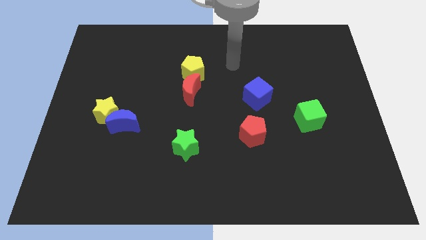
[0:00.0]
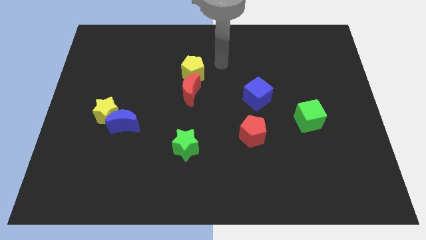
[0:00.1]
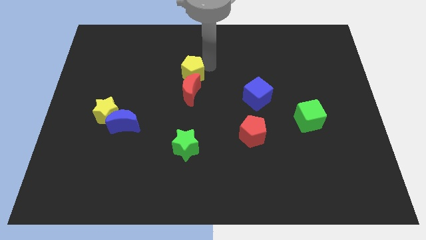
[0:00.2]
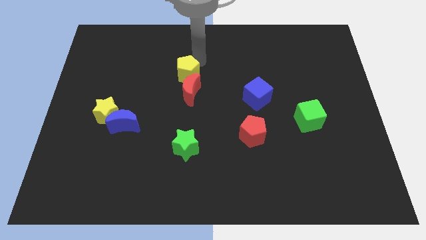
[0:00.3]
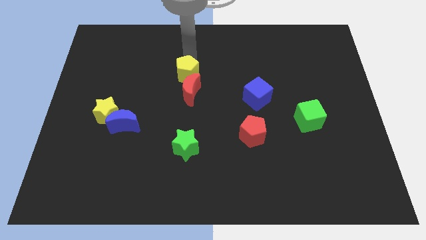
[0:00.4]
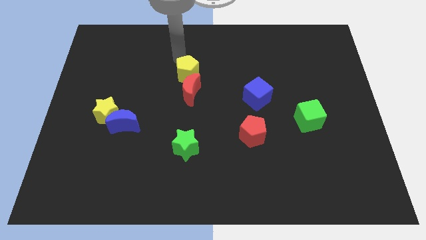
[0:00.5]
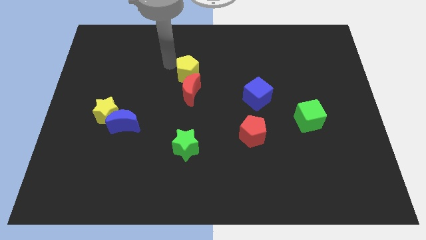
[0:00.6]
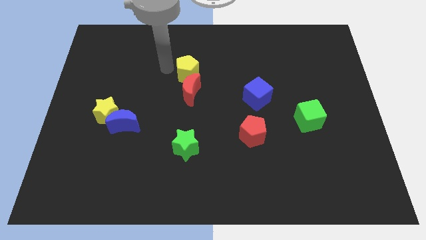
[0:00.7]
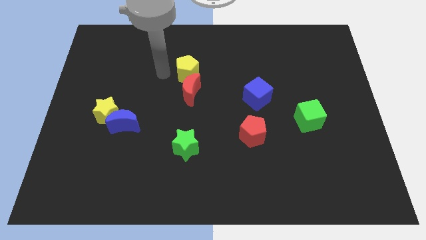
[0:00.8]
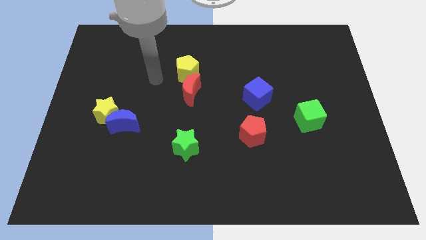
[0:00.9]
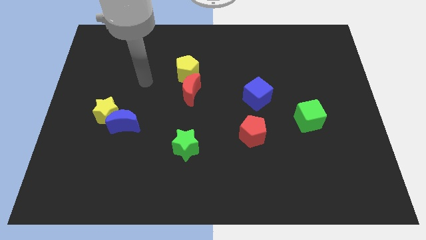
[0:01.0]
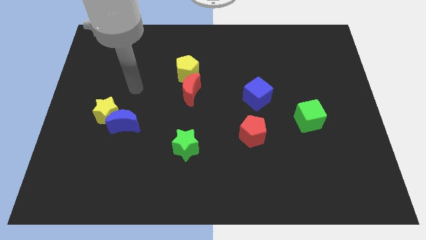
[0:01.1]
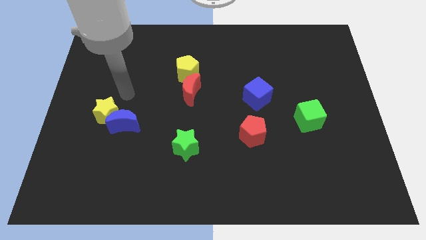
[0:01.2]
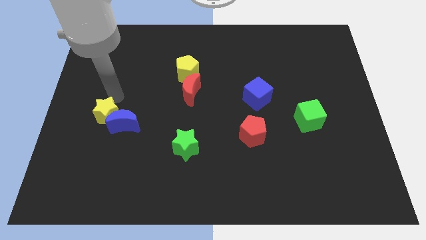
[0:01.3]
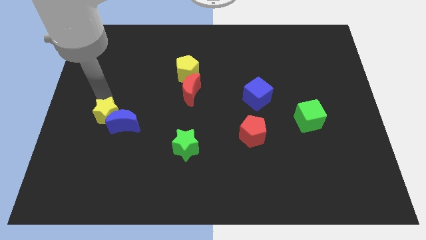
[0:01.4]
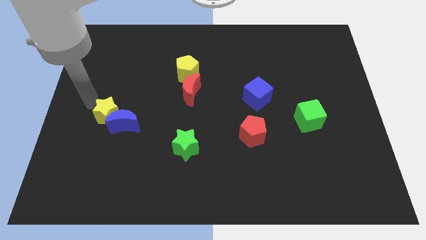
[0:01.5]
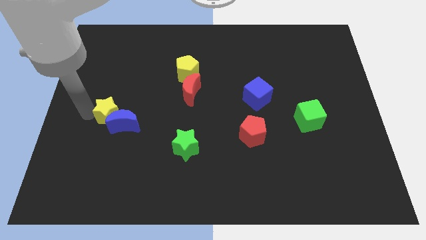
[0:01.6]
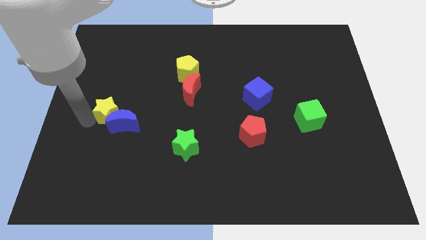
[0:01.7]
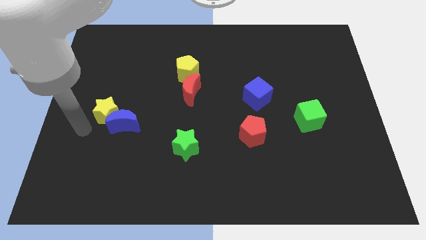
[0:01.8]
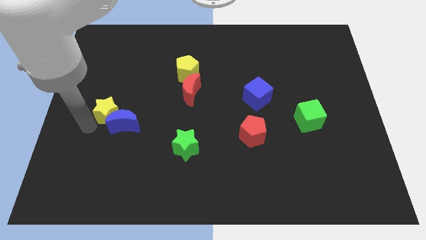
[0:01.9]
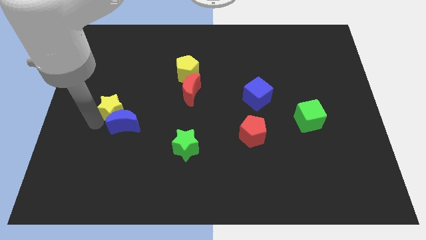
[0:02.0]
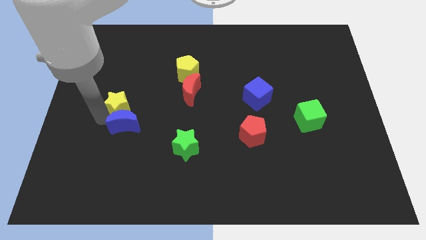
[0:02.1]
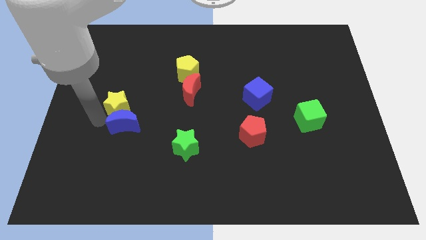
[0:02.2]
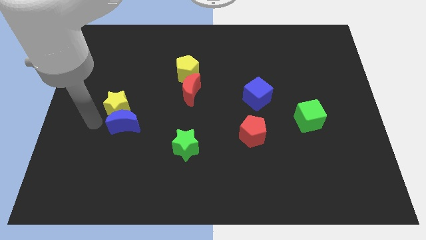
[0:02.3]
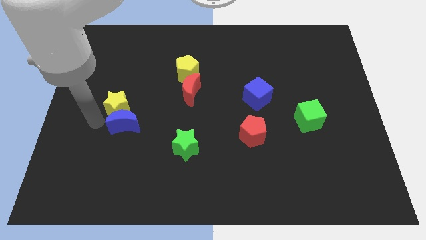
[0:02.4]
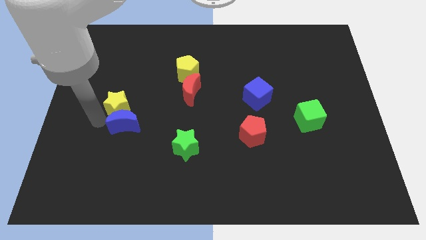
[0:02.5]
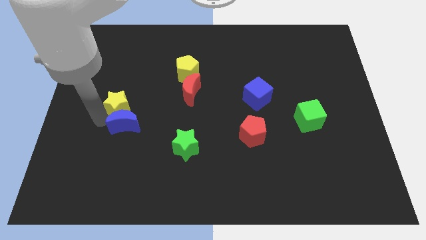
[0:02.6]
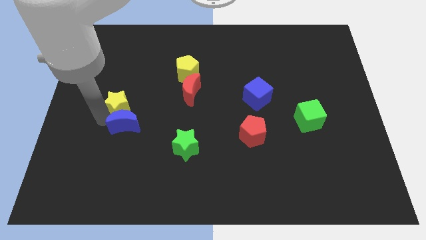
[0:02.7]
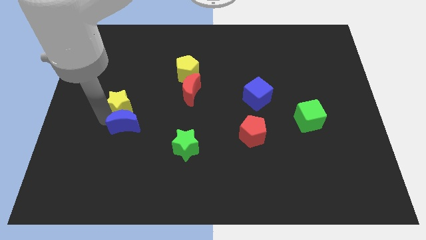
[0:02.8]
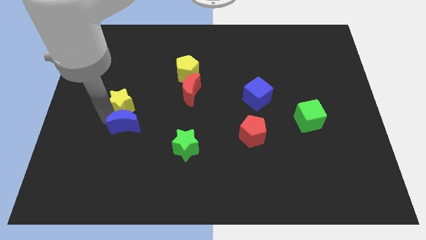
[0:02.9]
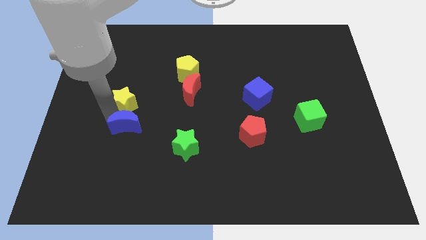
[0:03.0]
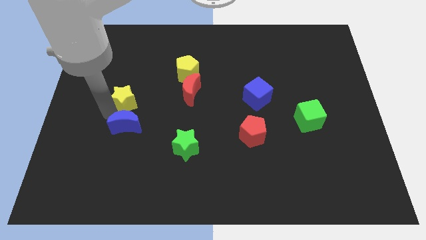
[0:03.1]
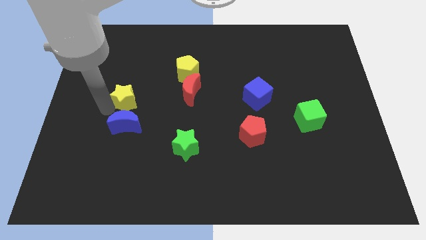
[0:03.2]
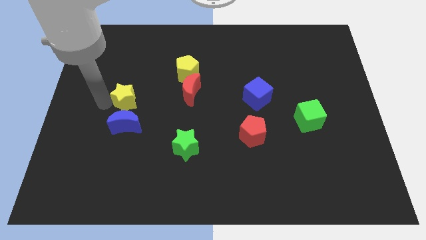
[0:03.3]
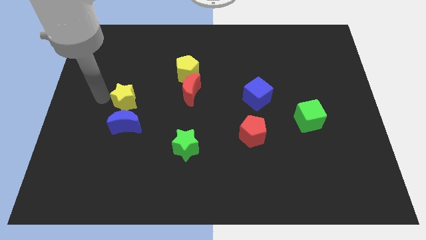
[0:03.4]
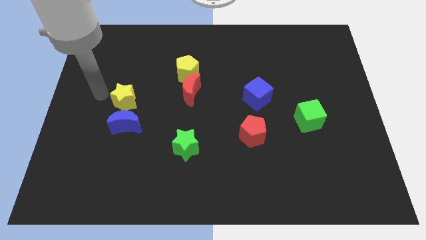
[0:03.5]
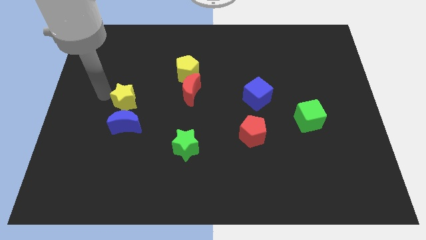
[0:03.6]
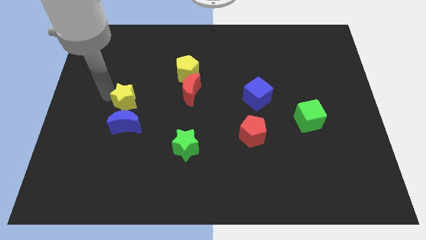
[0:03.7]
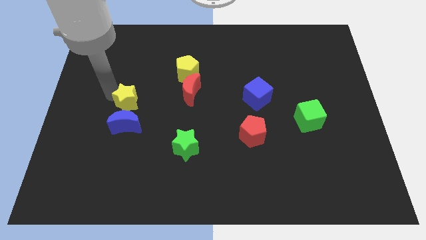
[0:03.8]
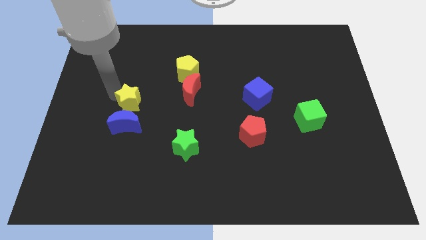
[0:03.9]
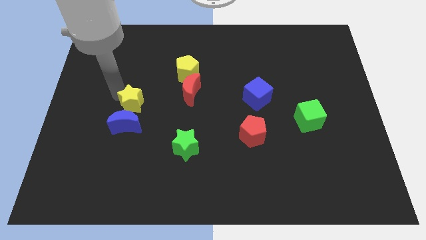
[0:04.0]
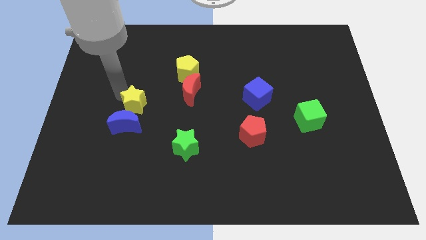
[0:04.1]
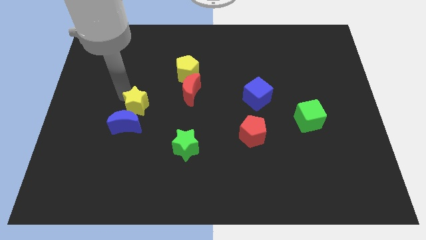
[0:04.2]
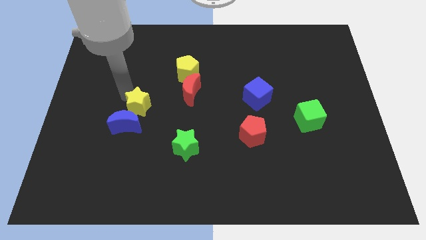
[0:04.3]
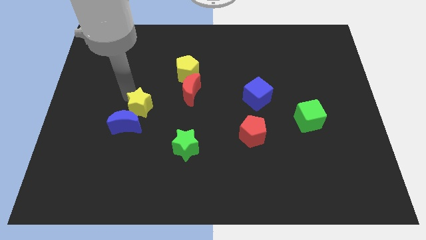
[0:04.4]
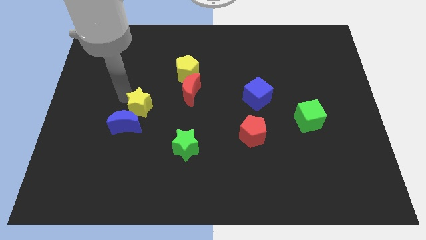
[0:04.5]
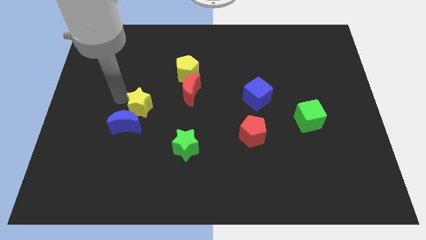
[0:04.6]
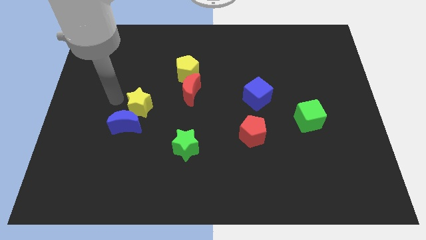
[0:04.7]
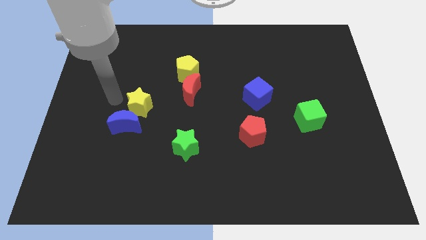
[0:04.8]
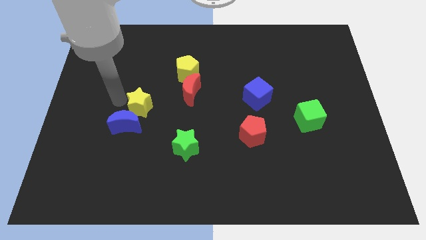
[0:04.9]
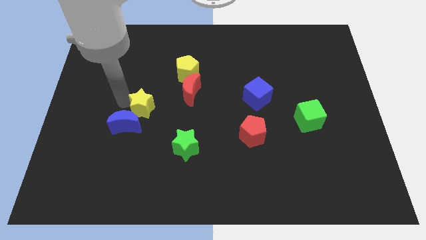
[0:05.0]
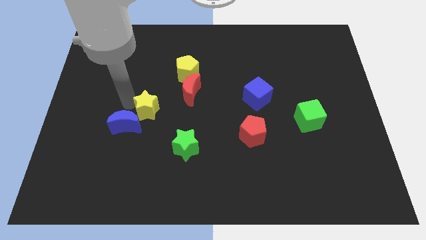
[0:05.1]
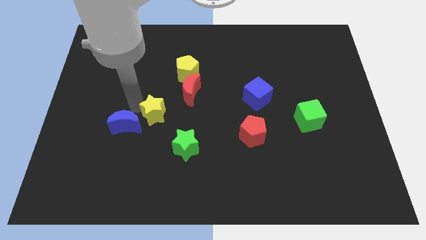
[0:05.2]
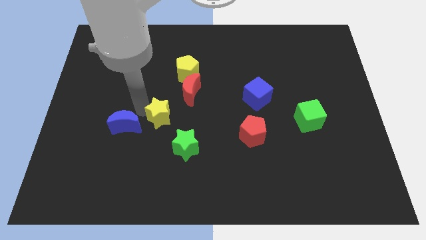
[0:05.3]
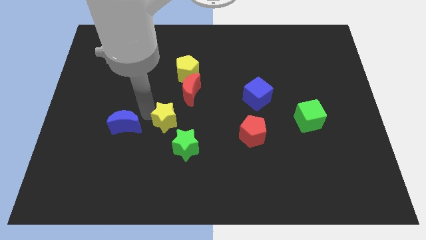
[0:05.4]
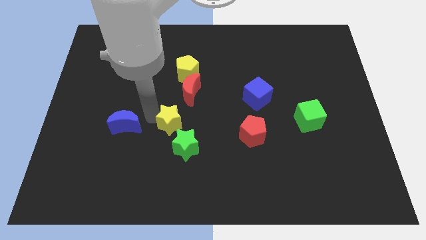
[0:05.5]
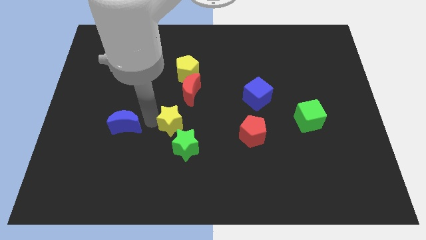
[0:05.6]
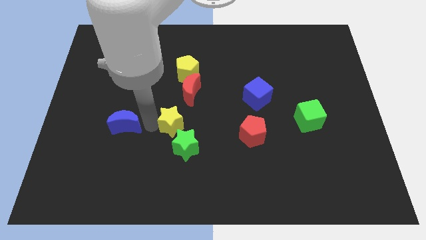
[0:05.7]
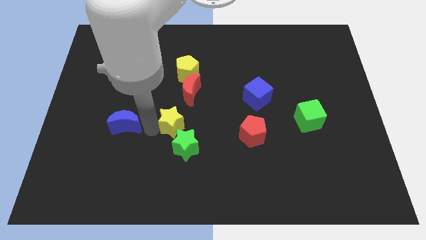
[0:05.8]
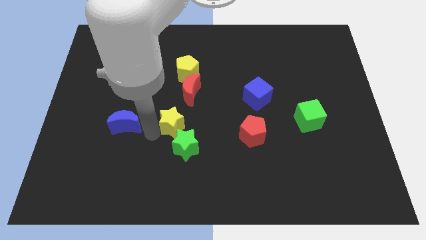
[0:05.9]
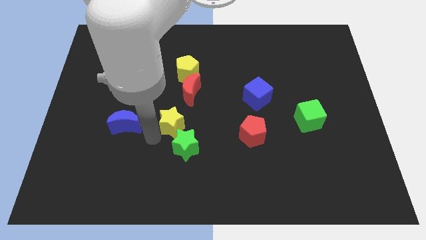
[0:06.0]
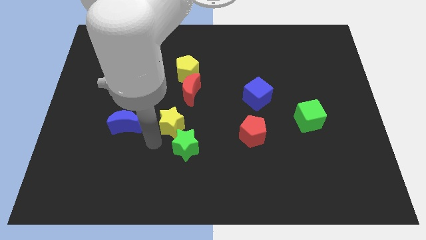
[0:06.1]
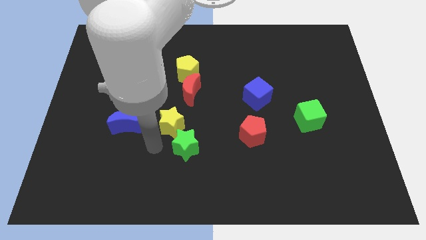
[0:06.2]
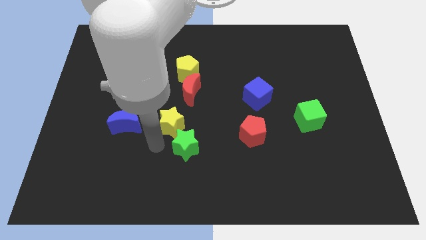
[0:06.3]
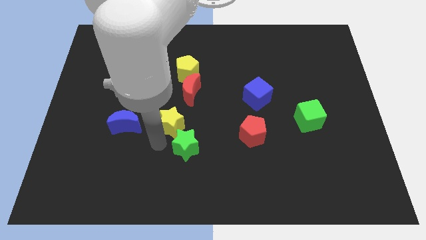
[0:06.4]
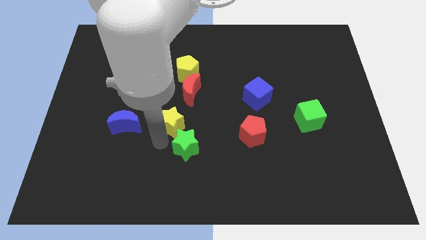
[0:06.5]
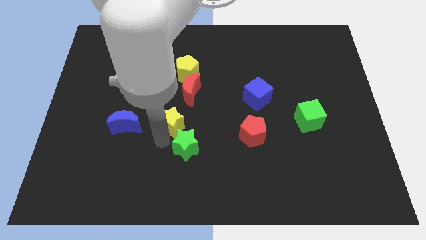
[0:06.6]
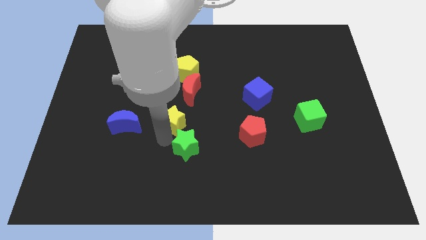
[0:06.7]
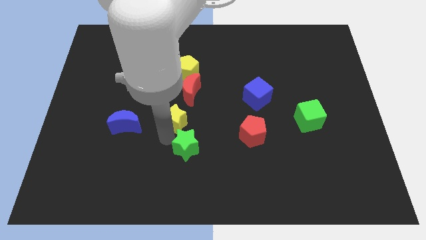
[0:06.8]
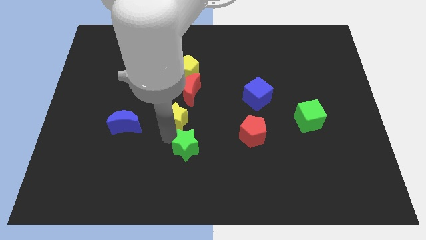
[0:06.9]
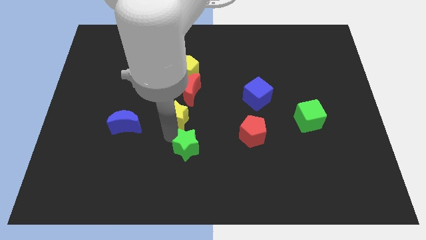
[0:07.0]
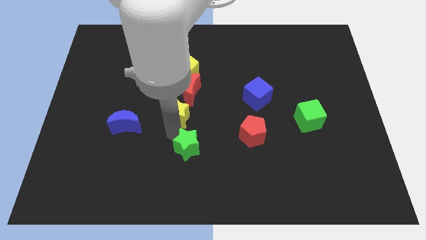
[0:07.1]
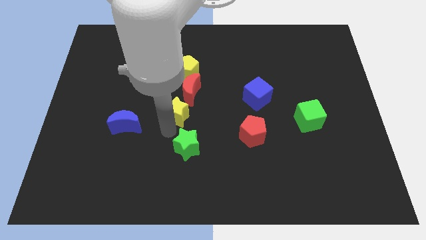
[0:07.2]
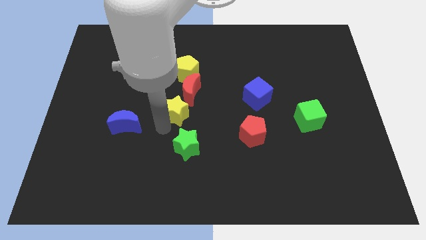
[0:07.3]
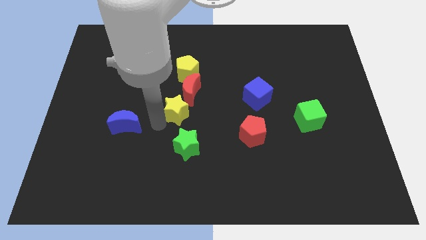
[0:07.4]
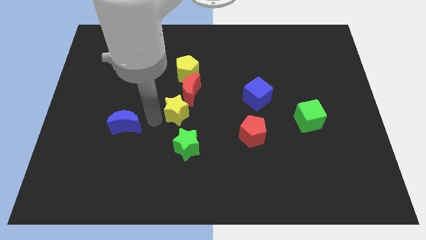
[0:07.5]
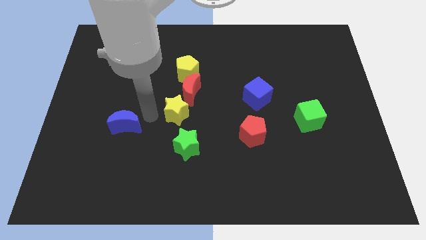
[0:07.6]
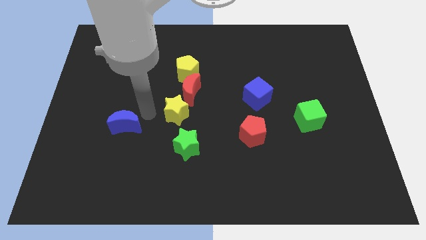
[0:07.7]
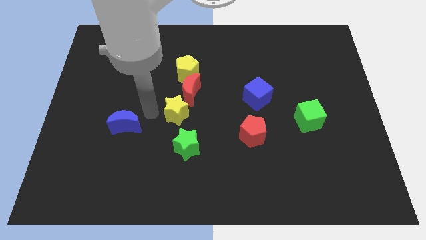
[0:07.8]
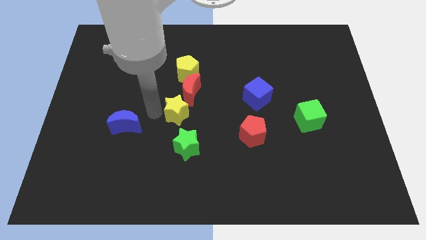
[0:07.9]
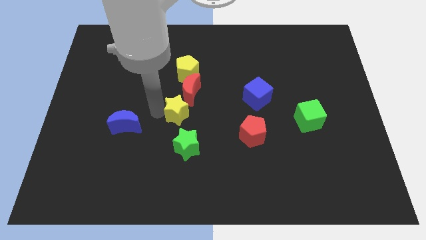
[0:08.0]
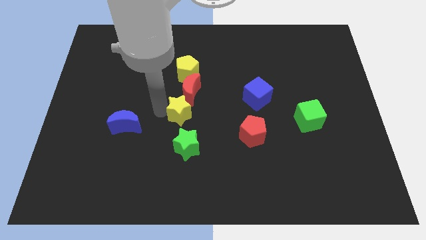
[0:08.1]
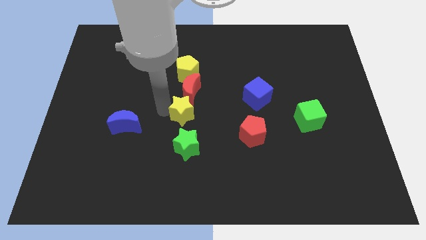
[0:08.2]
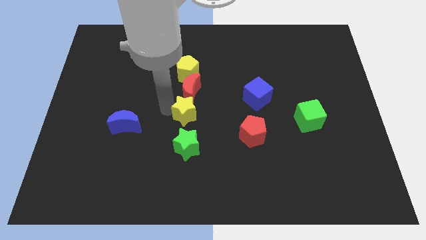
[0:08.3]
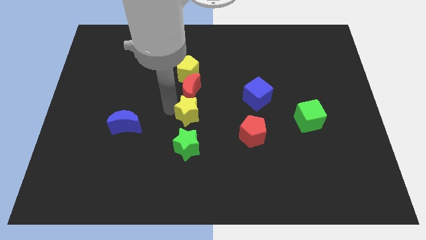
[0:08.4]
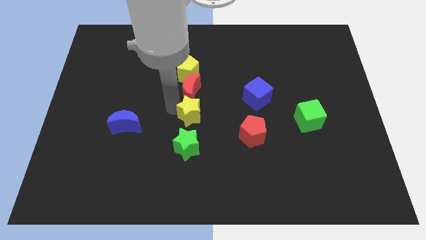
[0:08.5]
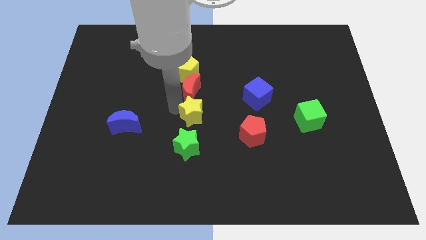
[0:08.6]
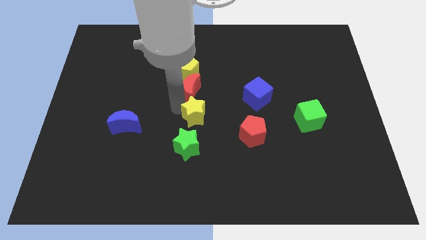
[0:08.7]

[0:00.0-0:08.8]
push the yellow star to the right
